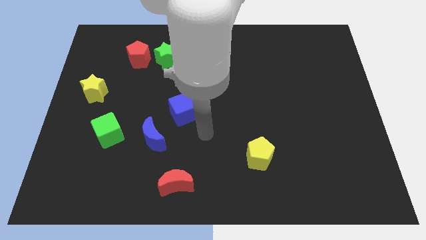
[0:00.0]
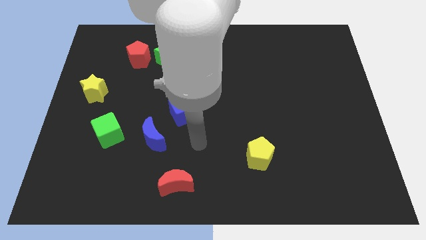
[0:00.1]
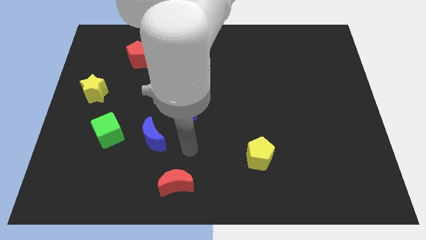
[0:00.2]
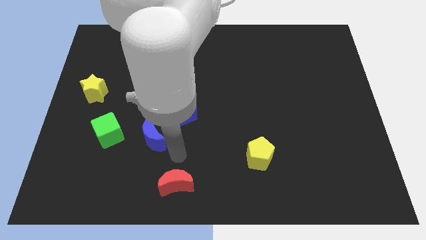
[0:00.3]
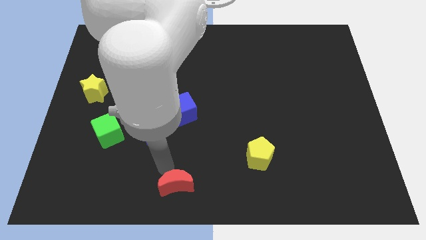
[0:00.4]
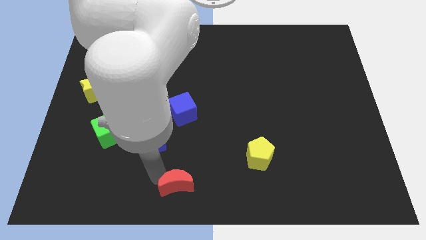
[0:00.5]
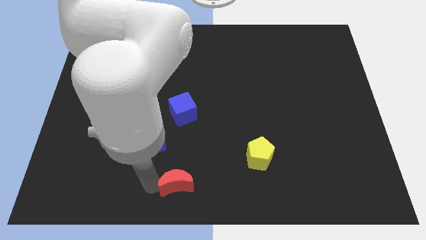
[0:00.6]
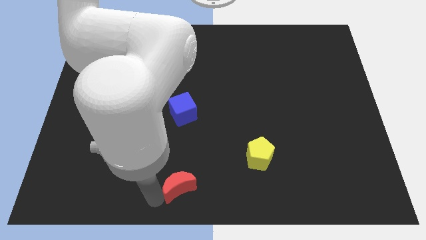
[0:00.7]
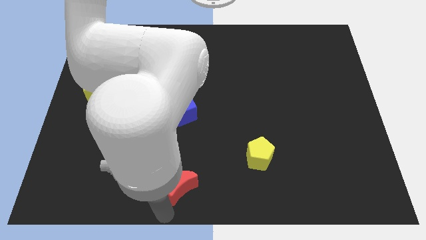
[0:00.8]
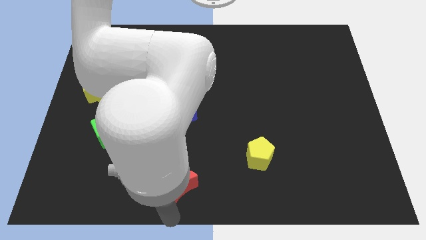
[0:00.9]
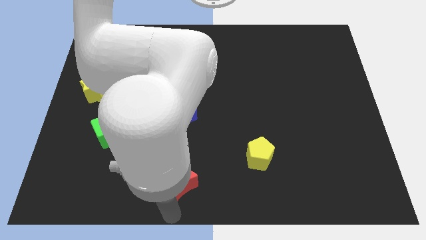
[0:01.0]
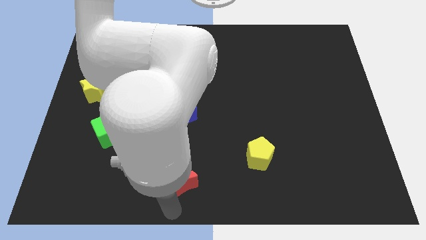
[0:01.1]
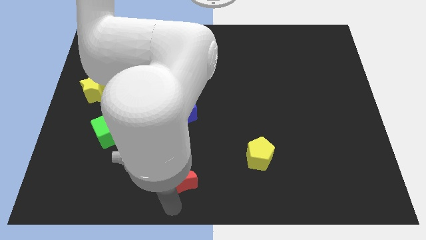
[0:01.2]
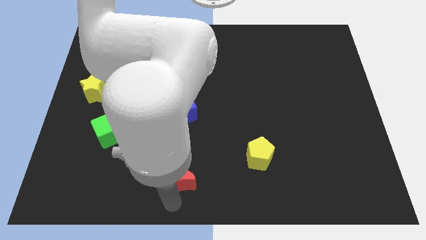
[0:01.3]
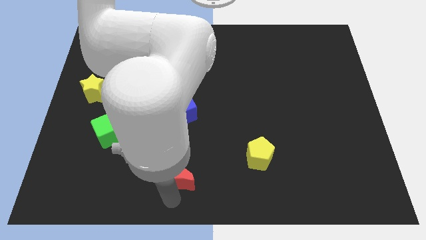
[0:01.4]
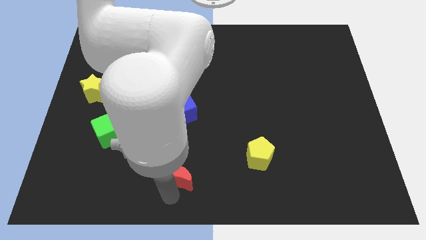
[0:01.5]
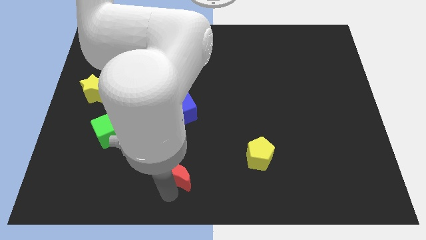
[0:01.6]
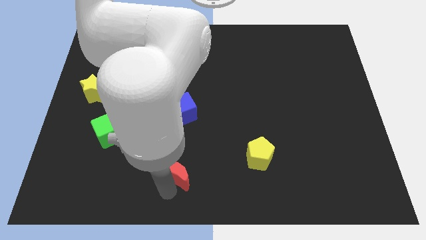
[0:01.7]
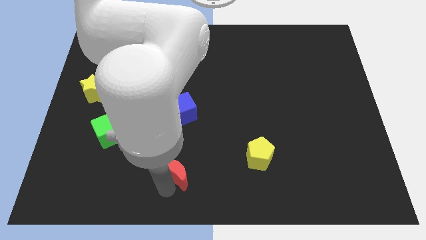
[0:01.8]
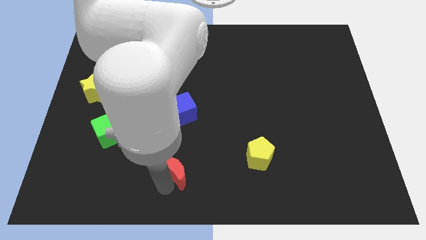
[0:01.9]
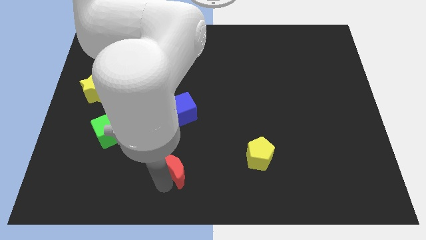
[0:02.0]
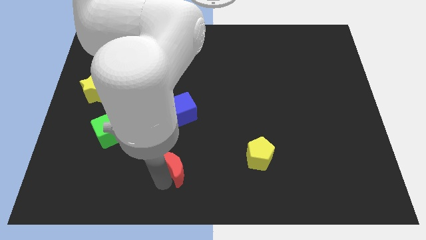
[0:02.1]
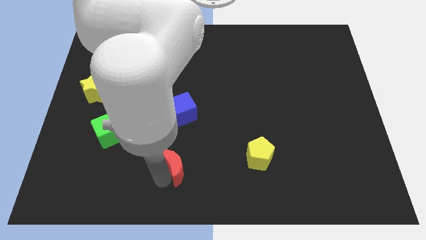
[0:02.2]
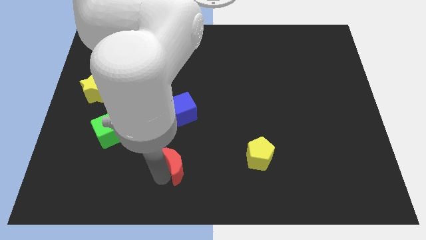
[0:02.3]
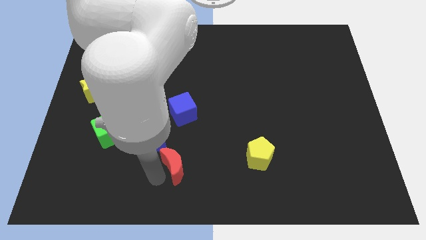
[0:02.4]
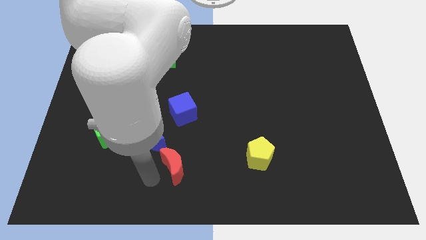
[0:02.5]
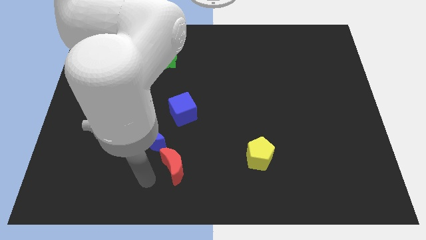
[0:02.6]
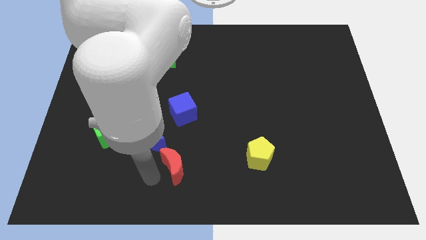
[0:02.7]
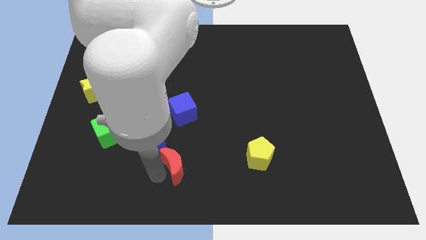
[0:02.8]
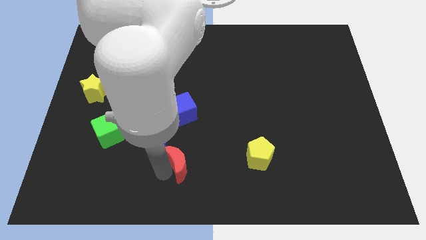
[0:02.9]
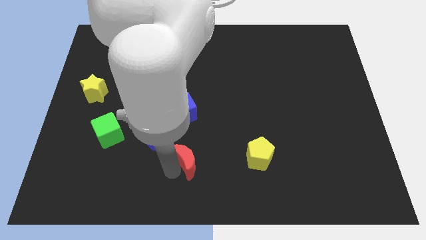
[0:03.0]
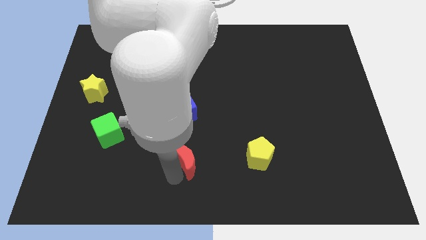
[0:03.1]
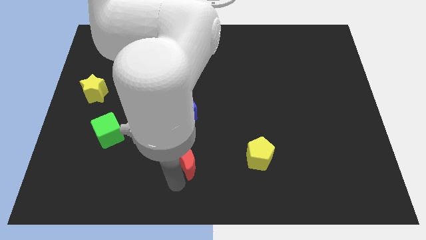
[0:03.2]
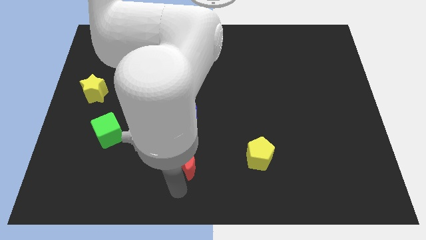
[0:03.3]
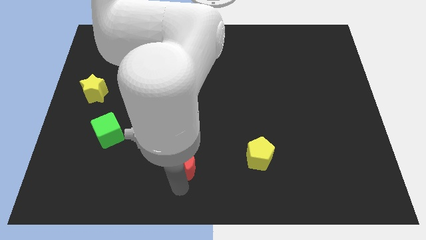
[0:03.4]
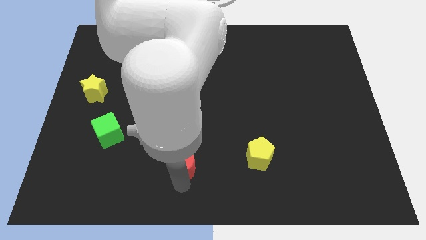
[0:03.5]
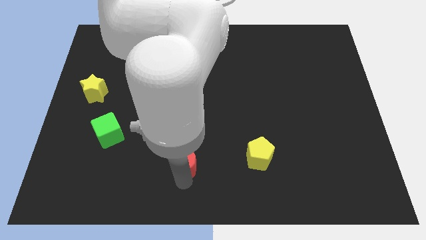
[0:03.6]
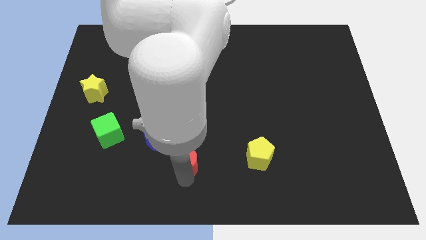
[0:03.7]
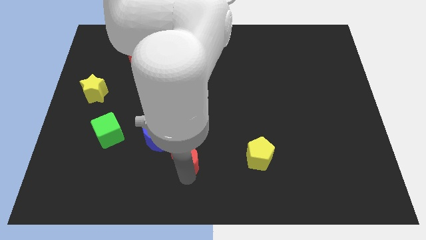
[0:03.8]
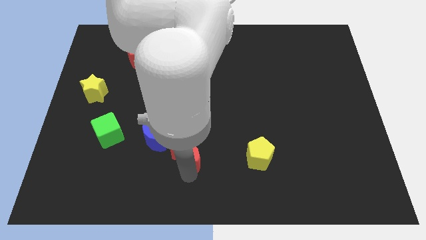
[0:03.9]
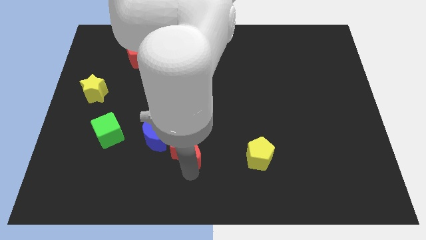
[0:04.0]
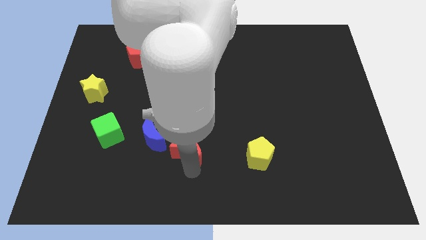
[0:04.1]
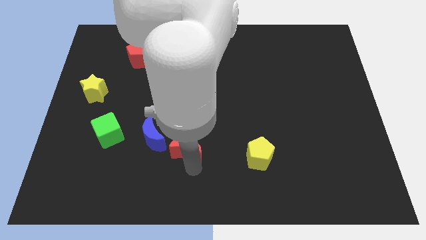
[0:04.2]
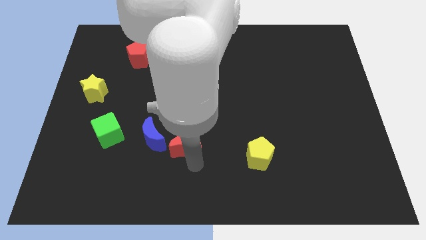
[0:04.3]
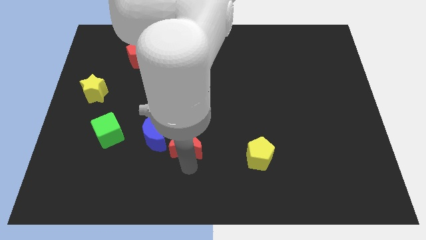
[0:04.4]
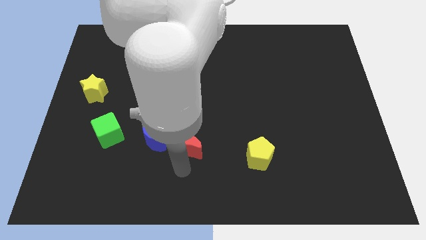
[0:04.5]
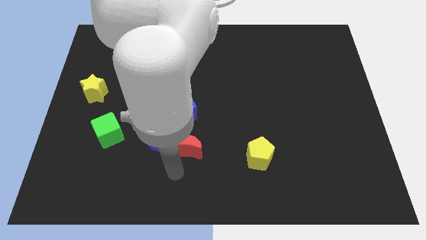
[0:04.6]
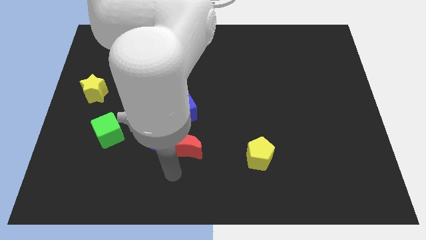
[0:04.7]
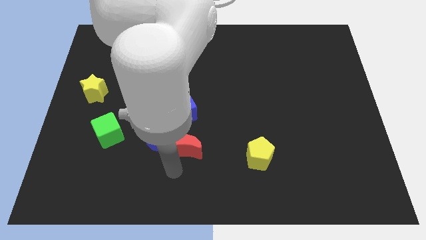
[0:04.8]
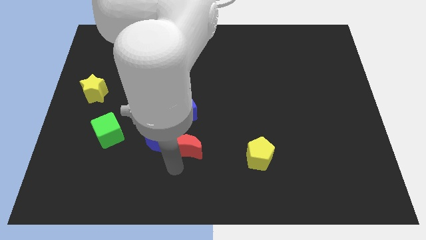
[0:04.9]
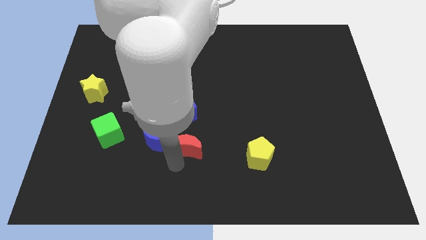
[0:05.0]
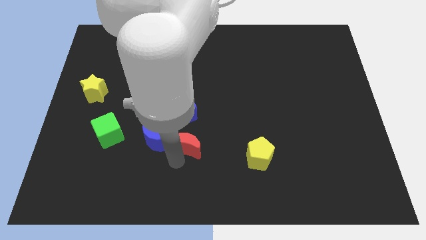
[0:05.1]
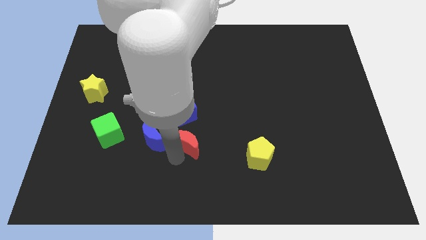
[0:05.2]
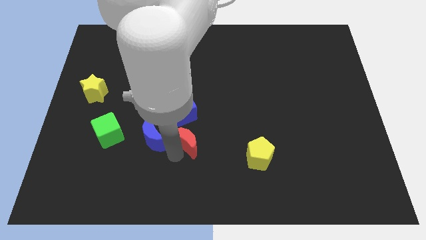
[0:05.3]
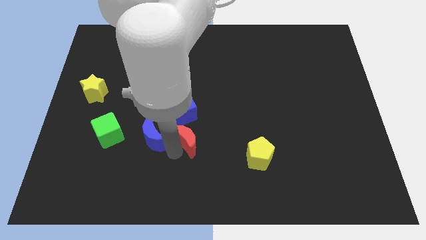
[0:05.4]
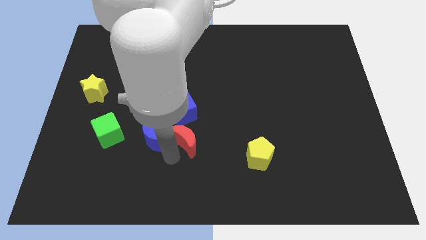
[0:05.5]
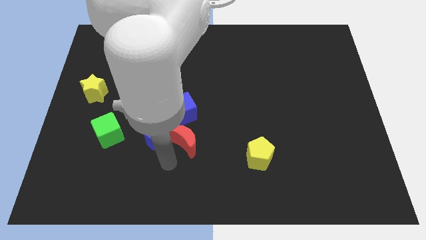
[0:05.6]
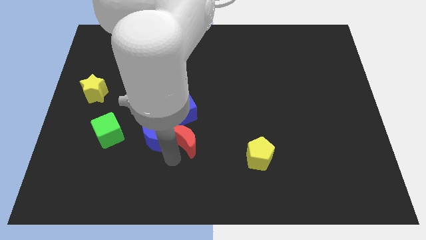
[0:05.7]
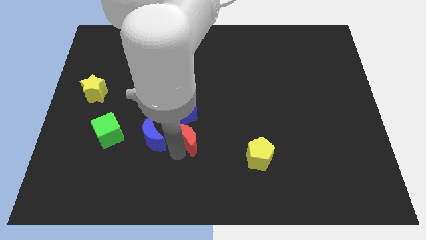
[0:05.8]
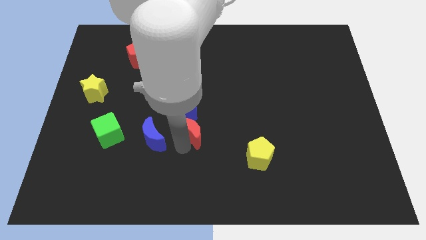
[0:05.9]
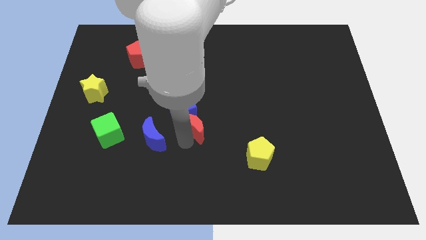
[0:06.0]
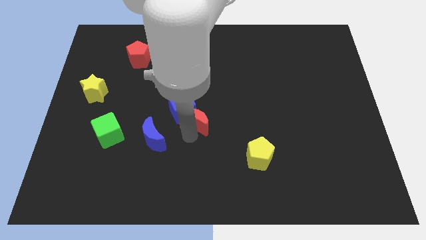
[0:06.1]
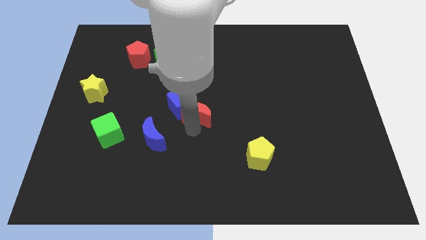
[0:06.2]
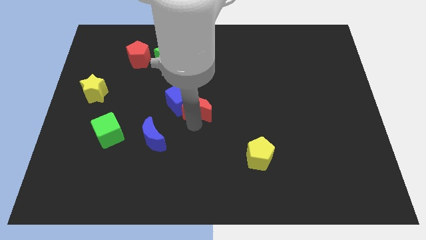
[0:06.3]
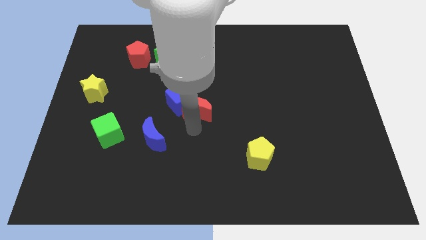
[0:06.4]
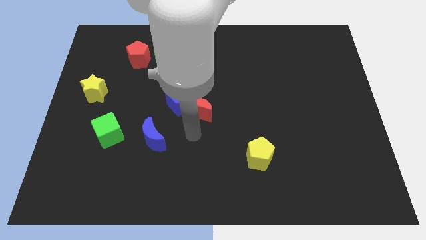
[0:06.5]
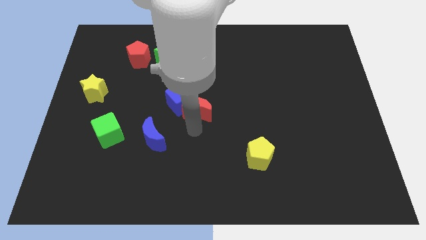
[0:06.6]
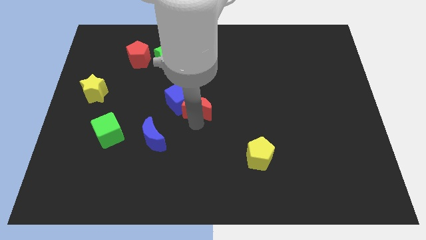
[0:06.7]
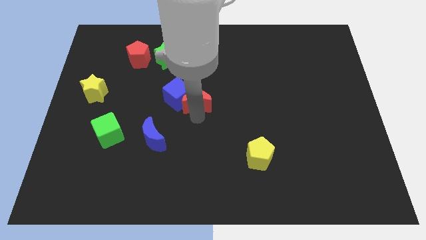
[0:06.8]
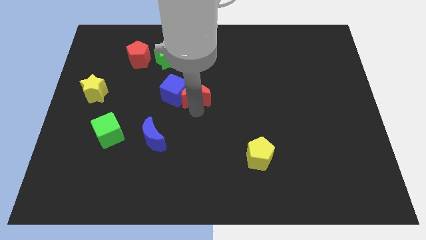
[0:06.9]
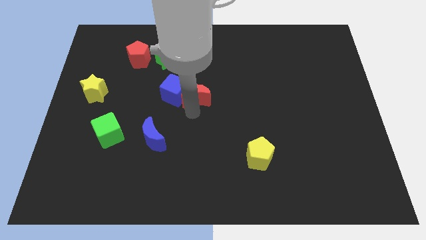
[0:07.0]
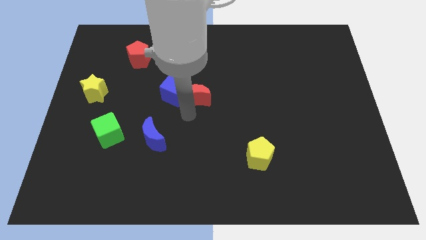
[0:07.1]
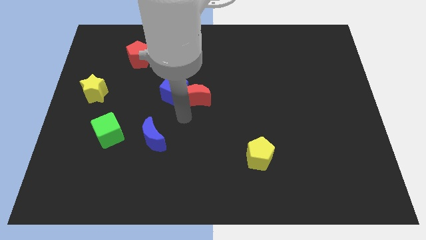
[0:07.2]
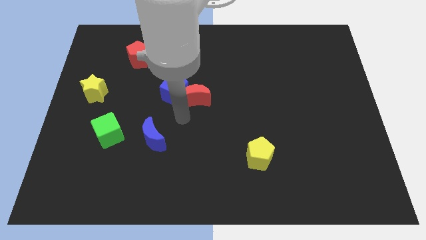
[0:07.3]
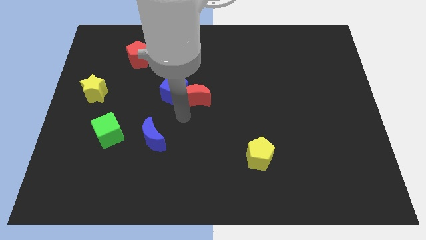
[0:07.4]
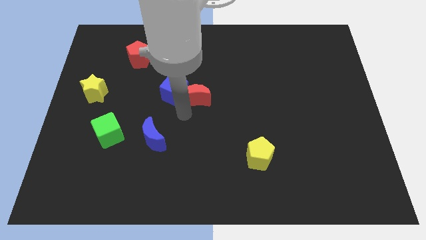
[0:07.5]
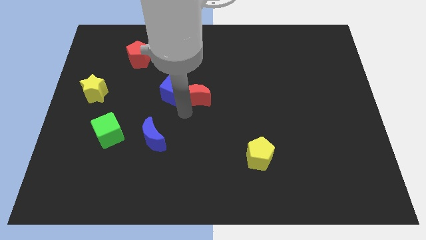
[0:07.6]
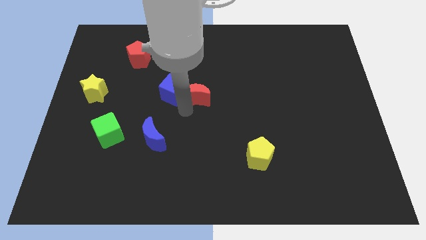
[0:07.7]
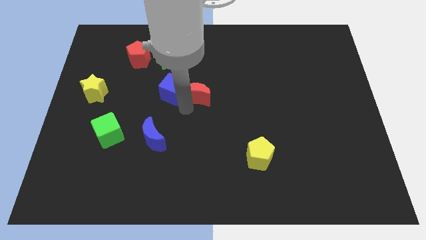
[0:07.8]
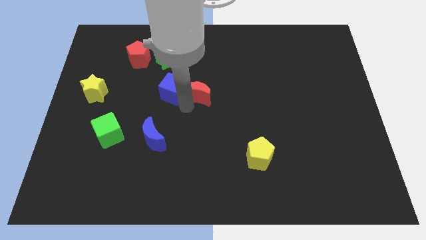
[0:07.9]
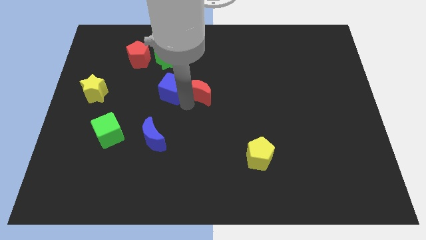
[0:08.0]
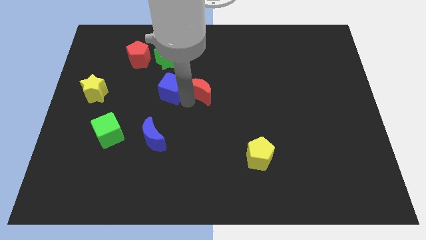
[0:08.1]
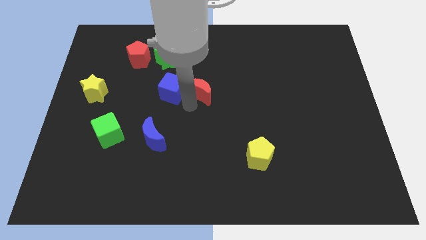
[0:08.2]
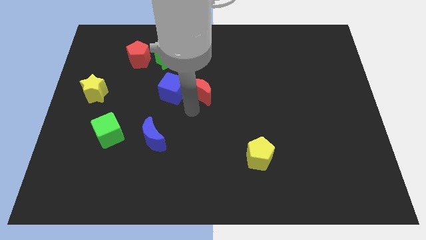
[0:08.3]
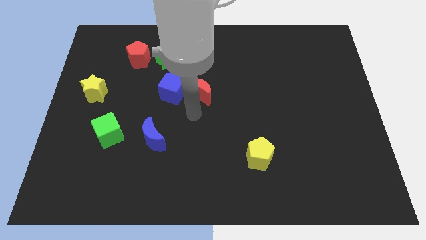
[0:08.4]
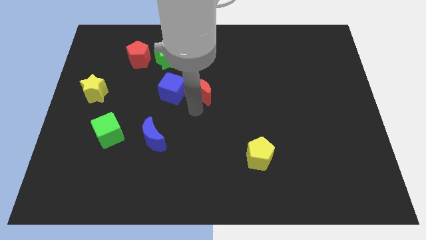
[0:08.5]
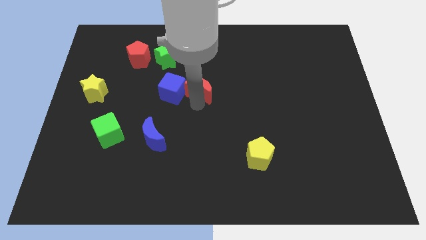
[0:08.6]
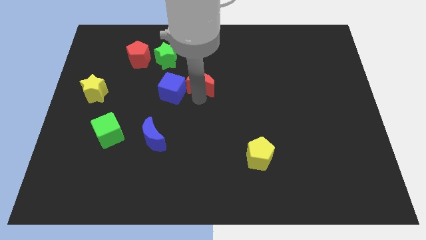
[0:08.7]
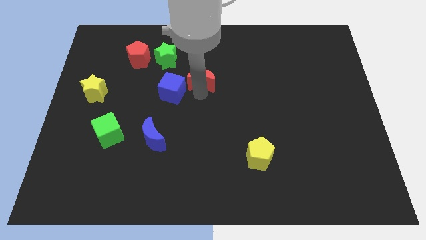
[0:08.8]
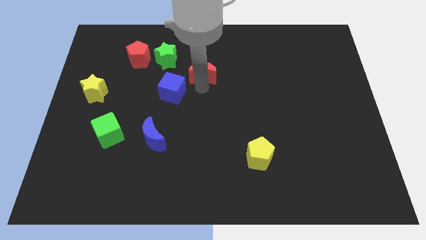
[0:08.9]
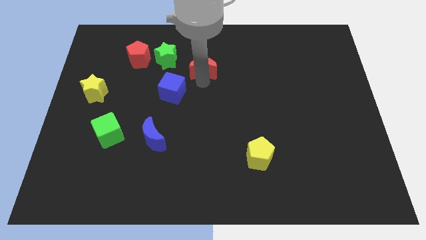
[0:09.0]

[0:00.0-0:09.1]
slide the red moon to the right side of the green star
